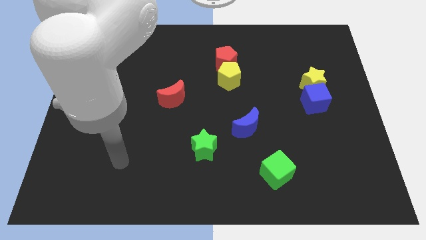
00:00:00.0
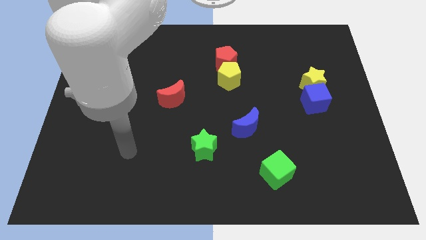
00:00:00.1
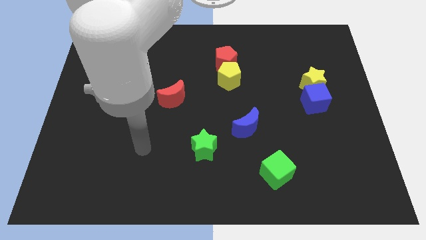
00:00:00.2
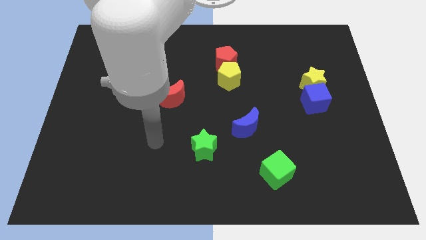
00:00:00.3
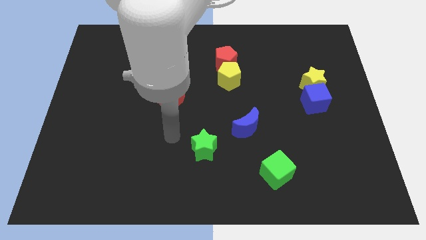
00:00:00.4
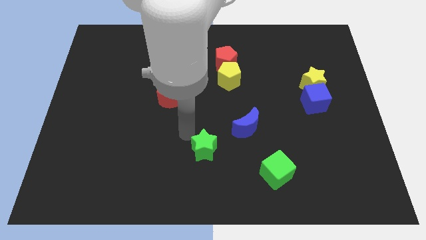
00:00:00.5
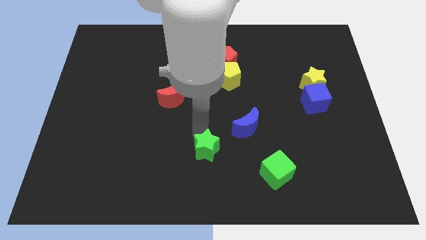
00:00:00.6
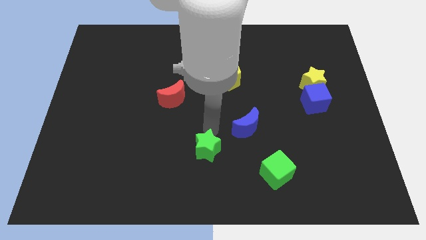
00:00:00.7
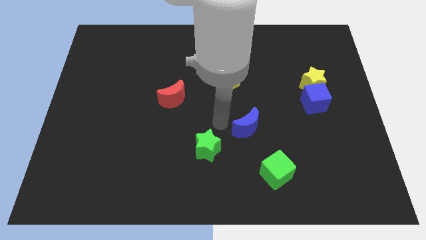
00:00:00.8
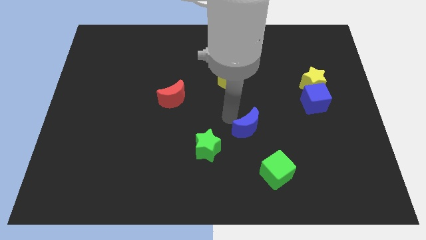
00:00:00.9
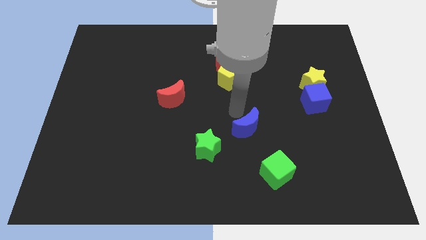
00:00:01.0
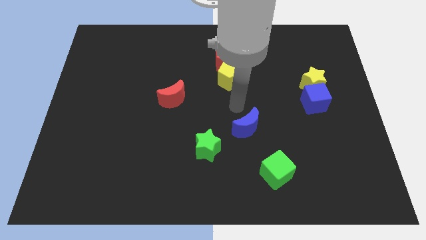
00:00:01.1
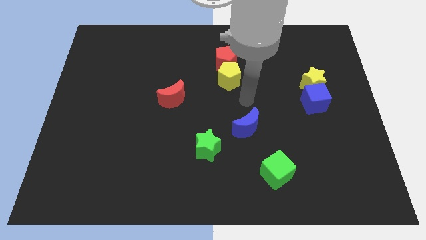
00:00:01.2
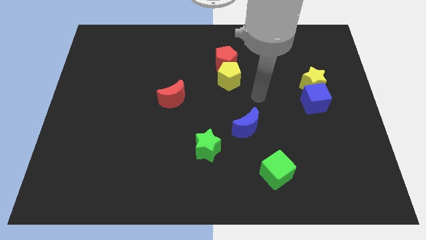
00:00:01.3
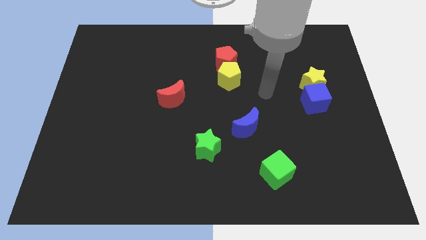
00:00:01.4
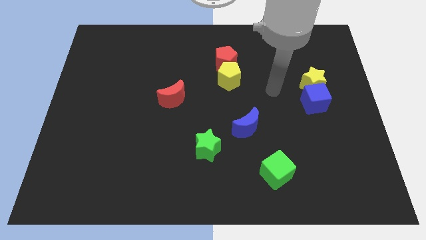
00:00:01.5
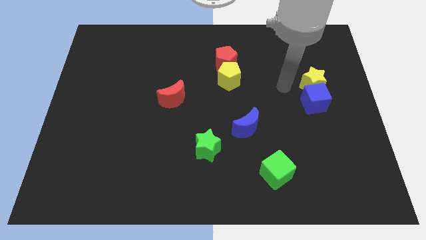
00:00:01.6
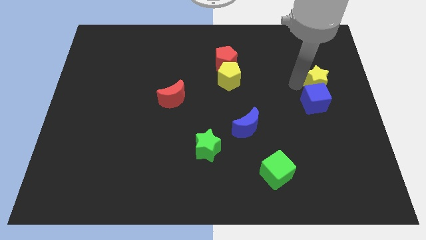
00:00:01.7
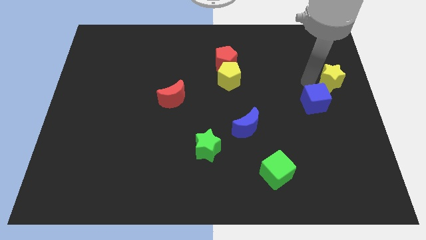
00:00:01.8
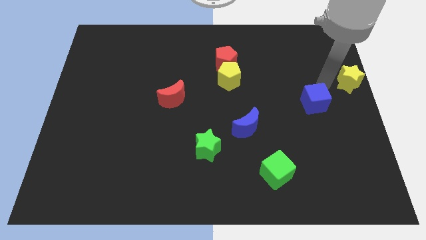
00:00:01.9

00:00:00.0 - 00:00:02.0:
separate the blue cube from the yellow star

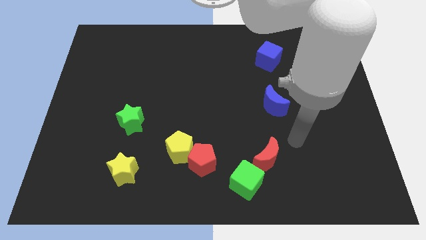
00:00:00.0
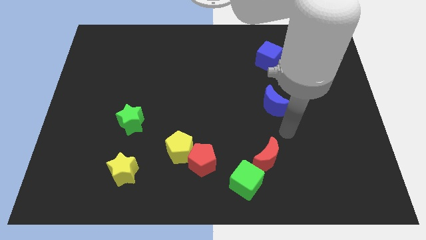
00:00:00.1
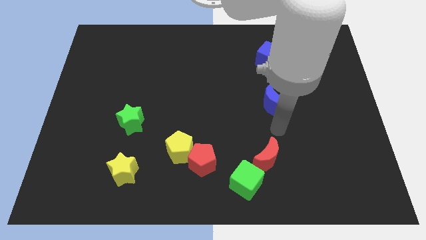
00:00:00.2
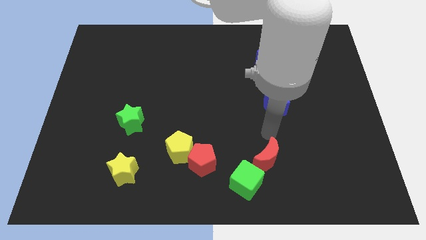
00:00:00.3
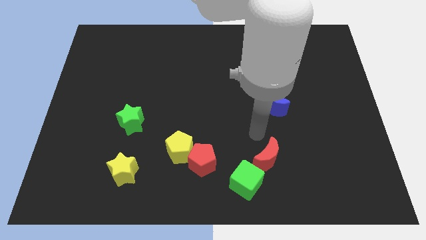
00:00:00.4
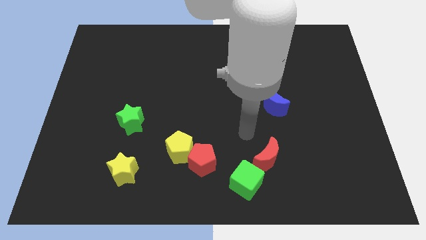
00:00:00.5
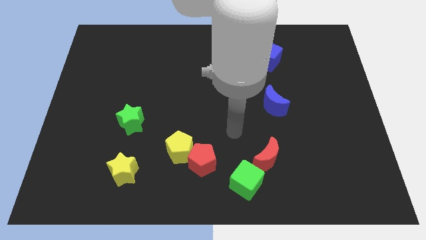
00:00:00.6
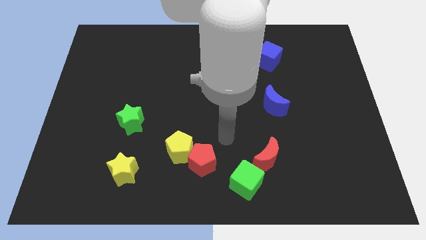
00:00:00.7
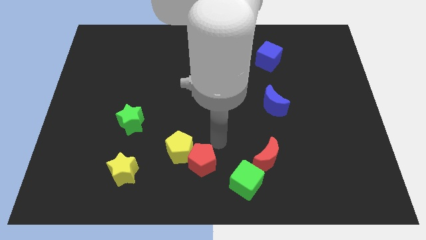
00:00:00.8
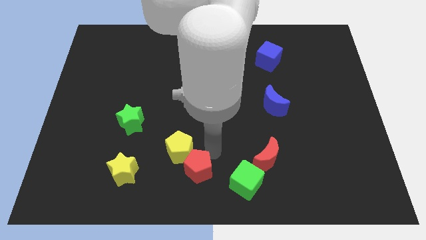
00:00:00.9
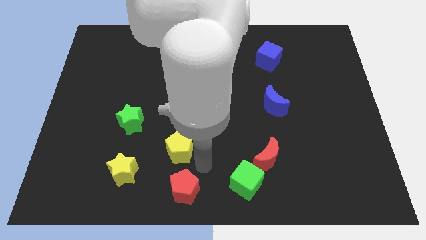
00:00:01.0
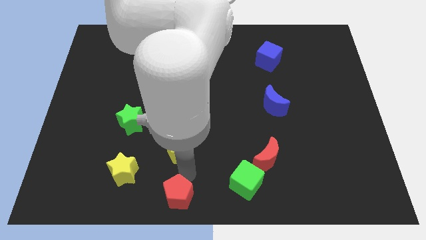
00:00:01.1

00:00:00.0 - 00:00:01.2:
separate the yellow pentagon from the red pentagon

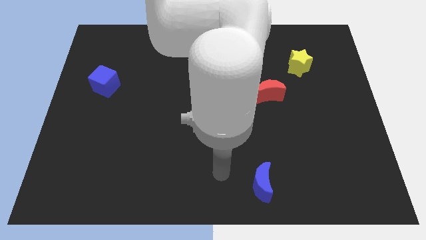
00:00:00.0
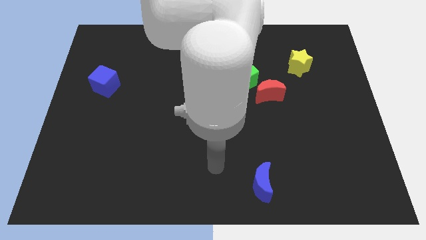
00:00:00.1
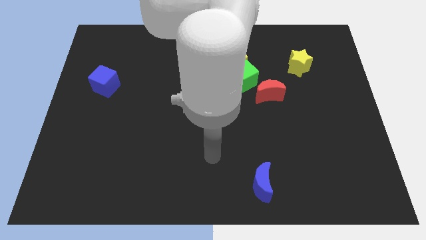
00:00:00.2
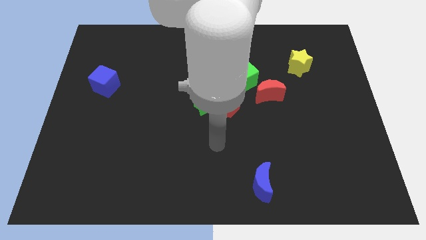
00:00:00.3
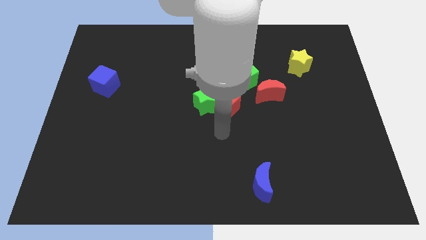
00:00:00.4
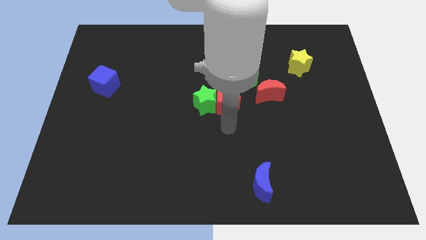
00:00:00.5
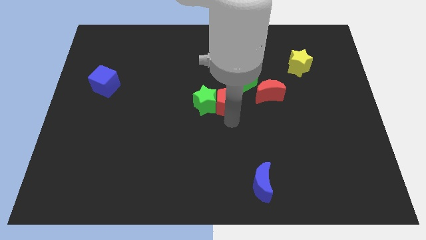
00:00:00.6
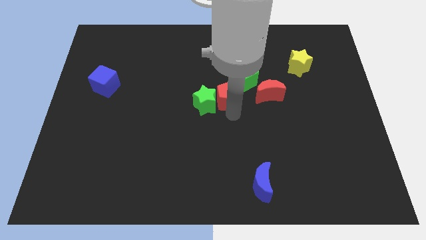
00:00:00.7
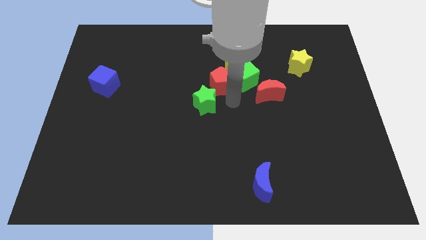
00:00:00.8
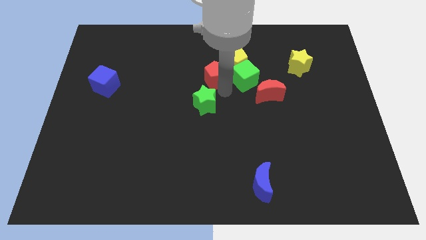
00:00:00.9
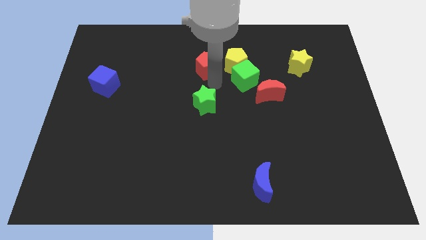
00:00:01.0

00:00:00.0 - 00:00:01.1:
separate the green star from the red pentagon

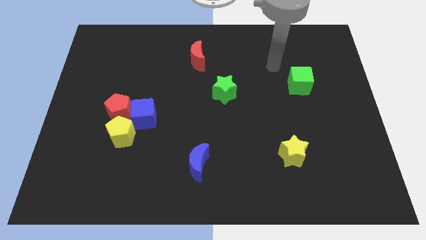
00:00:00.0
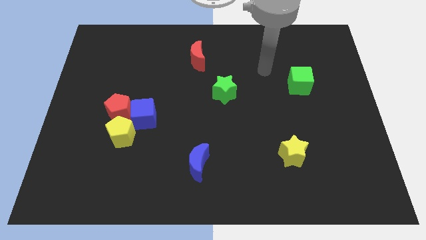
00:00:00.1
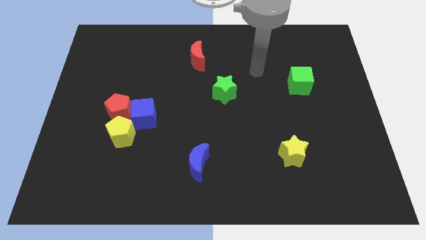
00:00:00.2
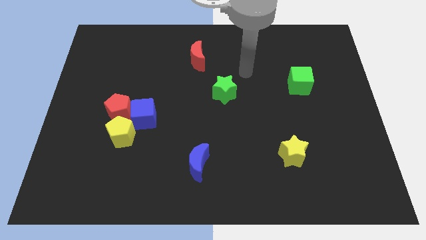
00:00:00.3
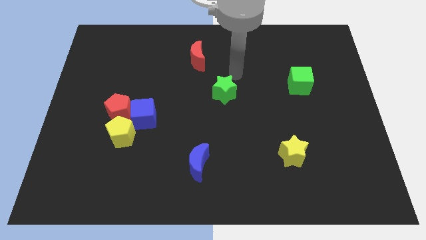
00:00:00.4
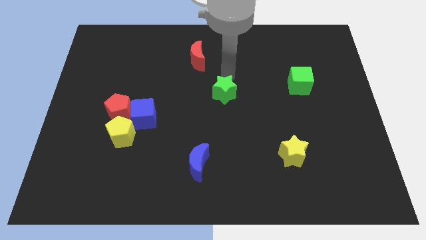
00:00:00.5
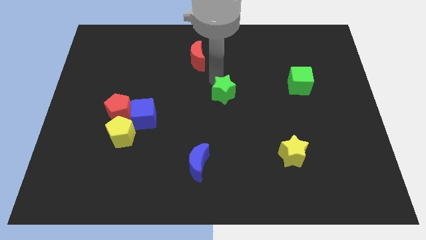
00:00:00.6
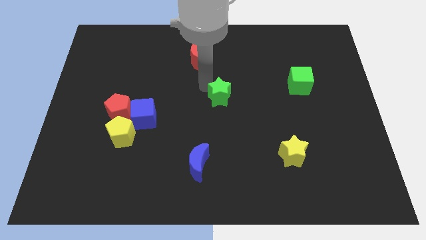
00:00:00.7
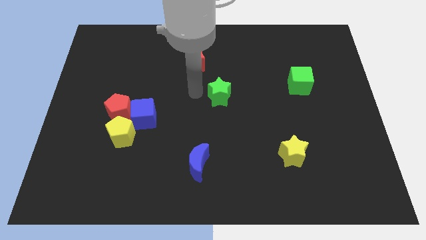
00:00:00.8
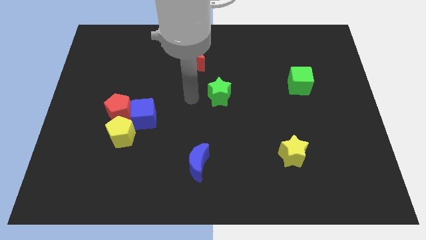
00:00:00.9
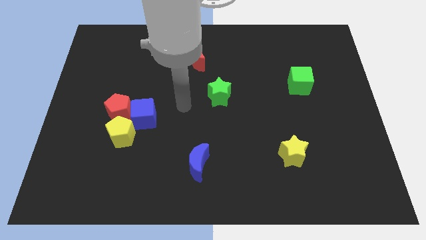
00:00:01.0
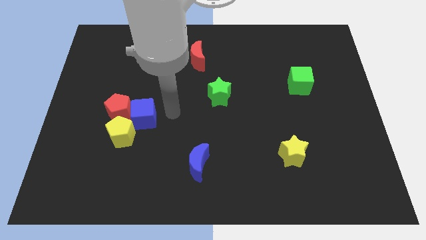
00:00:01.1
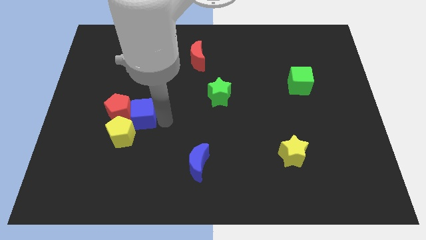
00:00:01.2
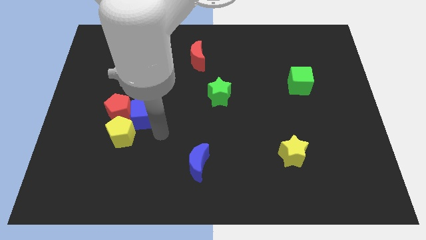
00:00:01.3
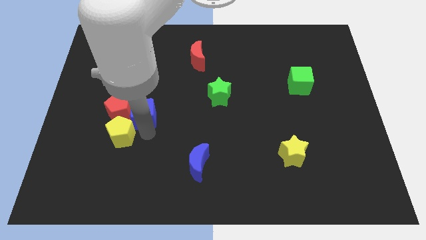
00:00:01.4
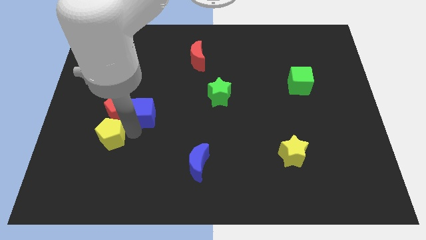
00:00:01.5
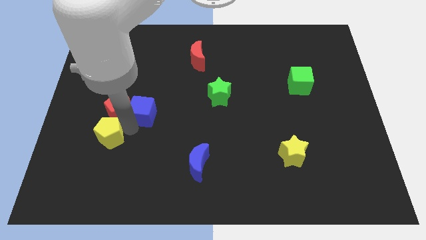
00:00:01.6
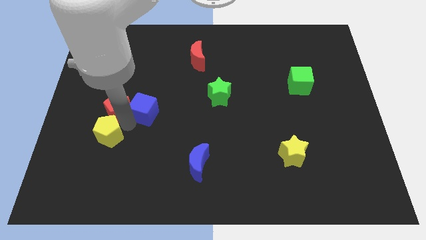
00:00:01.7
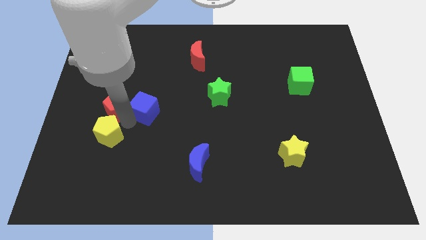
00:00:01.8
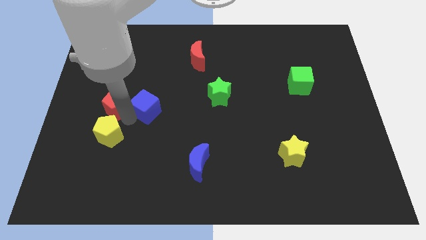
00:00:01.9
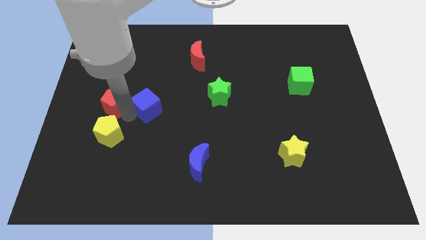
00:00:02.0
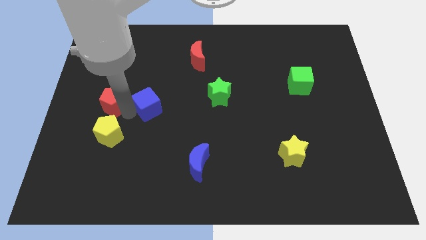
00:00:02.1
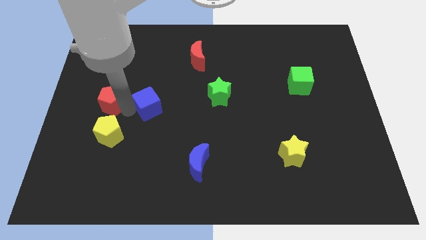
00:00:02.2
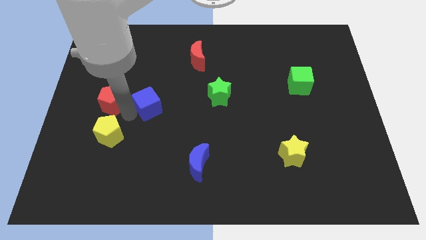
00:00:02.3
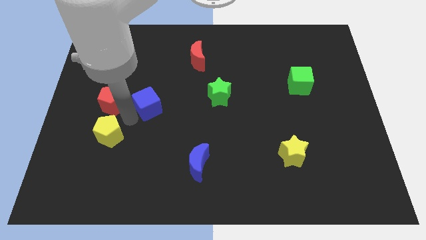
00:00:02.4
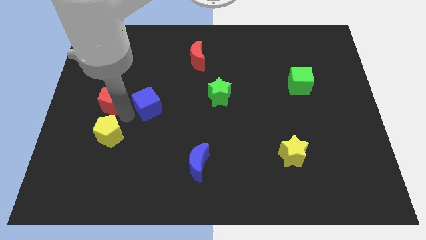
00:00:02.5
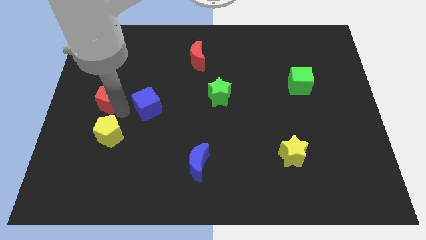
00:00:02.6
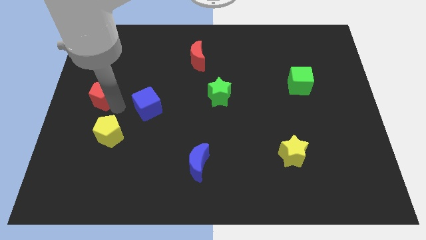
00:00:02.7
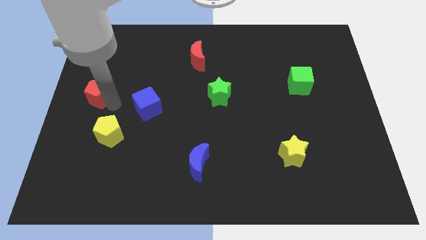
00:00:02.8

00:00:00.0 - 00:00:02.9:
separate the red pentagon from the blue cube and yellow pentagon

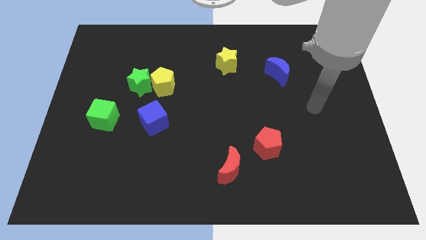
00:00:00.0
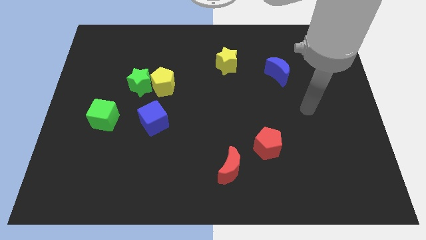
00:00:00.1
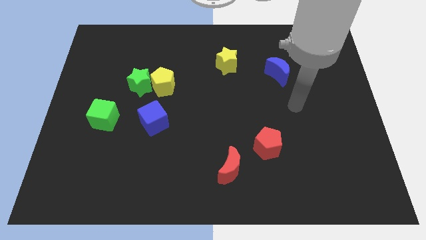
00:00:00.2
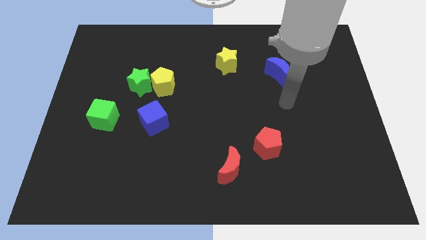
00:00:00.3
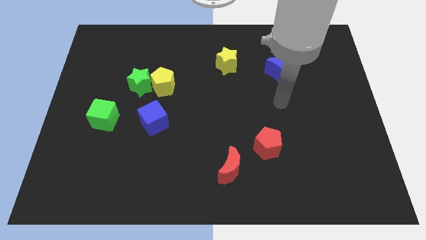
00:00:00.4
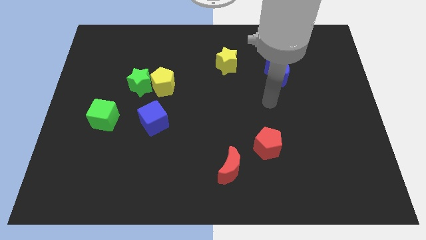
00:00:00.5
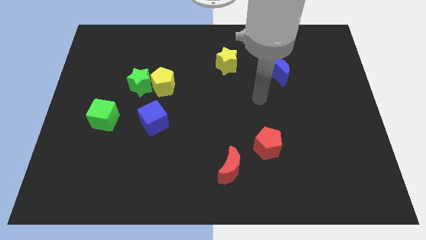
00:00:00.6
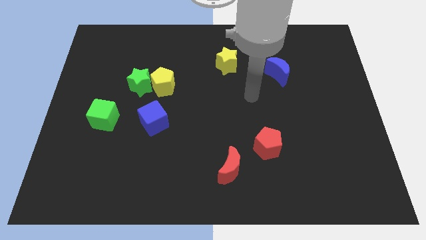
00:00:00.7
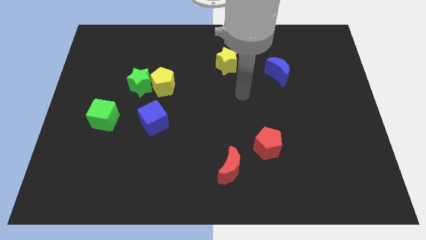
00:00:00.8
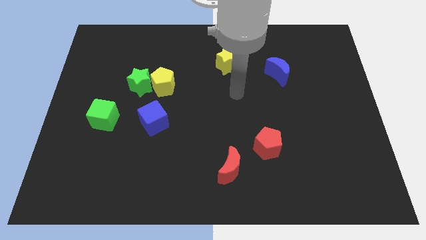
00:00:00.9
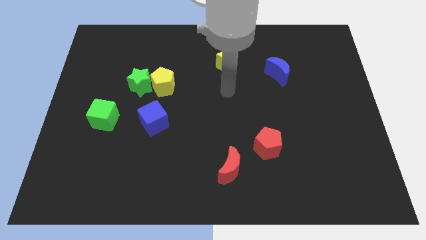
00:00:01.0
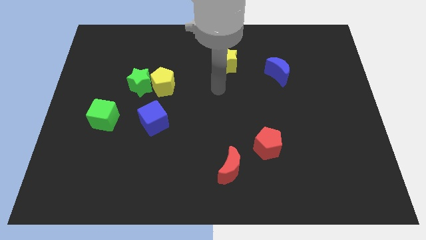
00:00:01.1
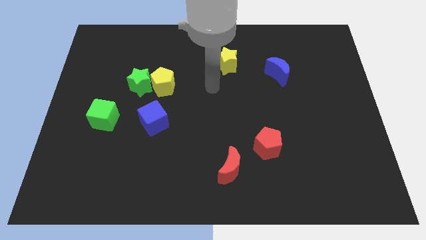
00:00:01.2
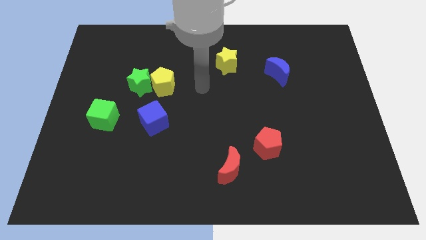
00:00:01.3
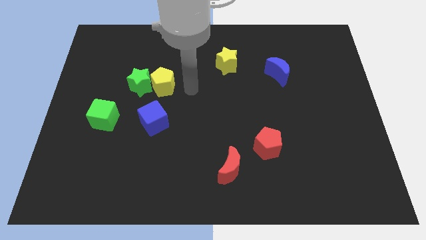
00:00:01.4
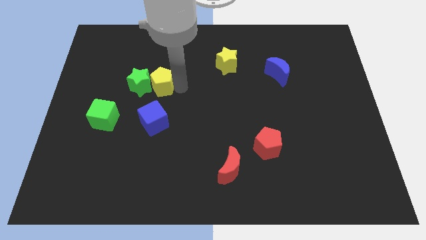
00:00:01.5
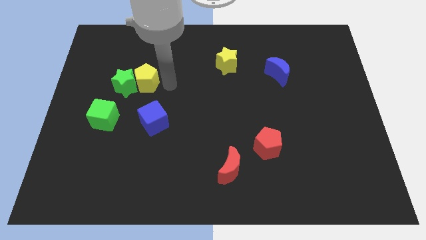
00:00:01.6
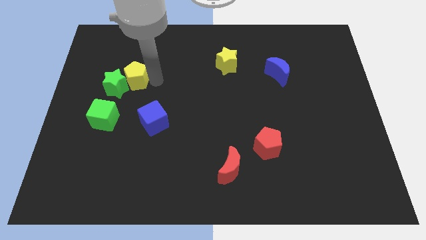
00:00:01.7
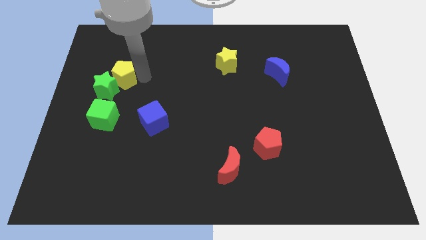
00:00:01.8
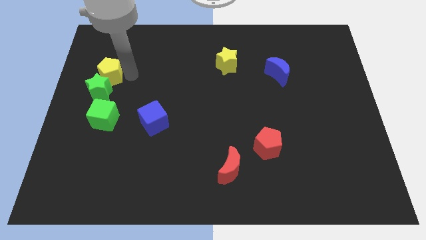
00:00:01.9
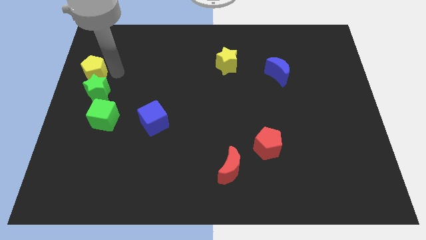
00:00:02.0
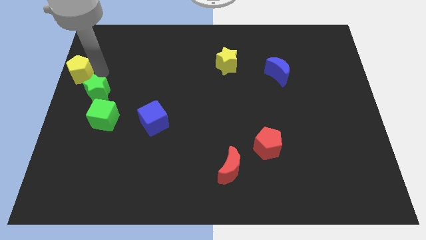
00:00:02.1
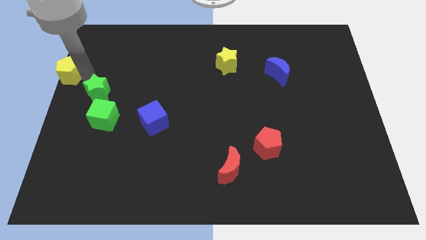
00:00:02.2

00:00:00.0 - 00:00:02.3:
separate the green star from the yellow pentagon
